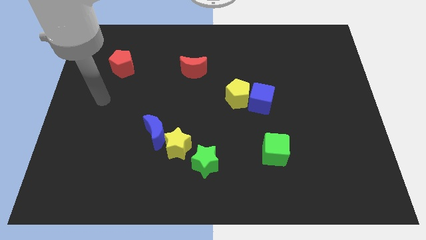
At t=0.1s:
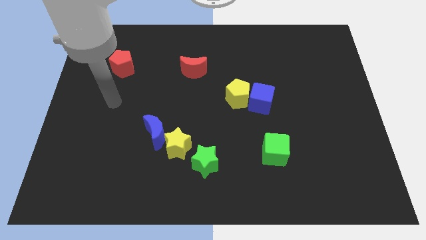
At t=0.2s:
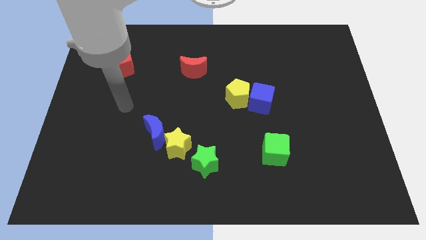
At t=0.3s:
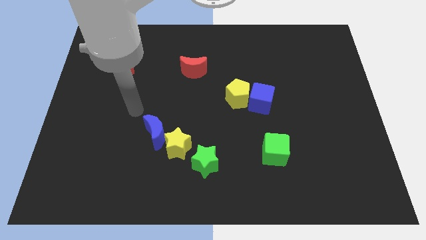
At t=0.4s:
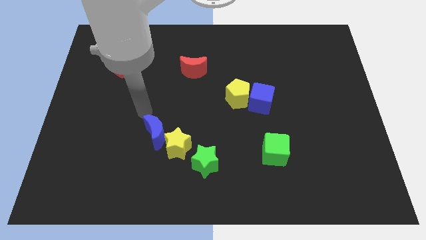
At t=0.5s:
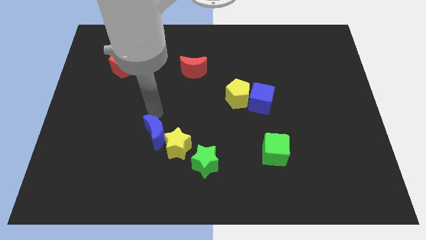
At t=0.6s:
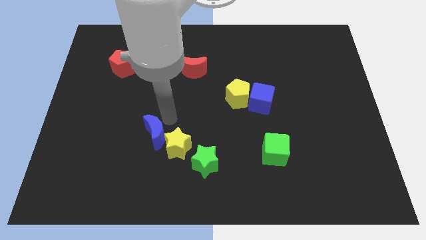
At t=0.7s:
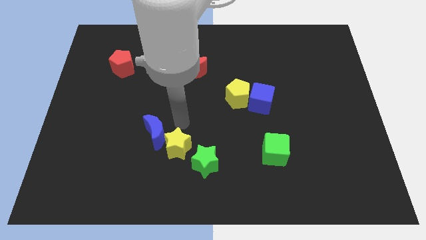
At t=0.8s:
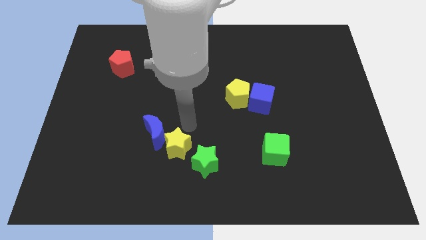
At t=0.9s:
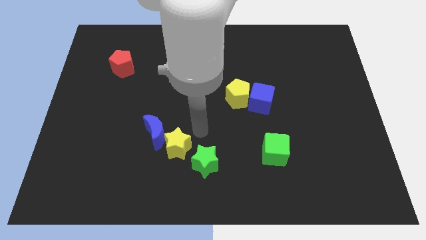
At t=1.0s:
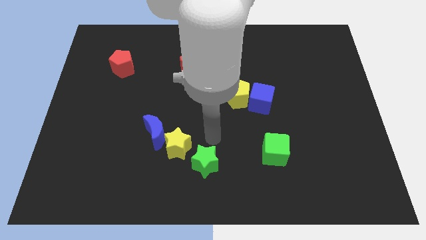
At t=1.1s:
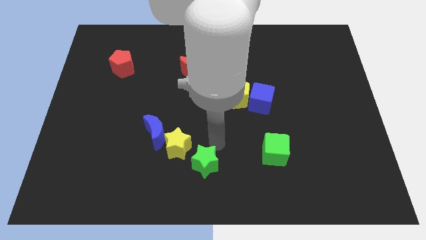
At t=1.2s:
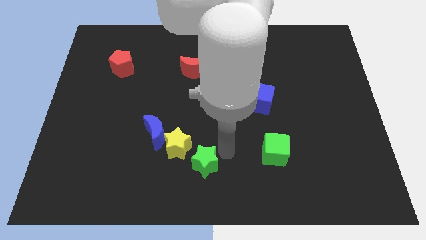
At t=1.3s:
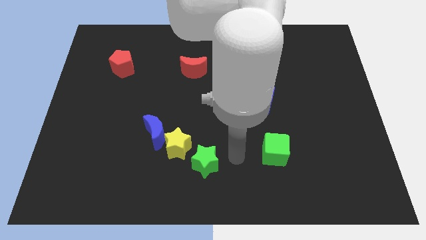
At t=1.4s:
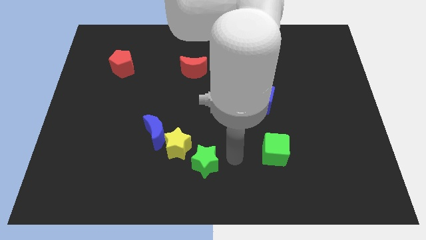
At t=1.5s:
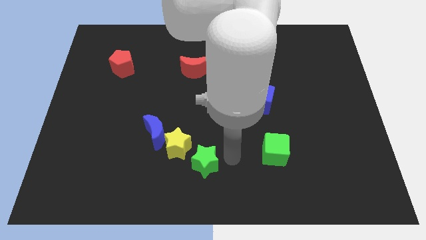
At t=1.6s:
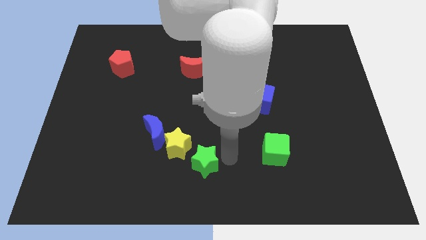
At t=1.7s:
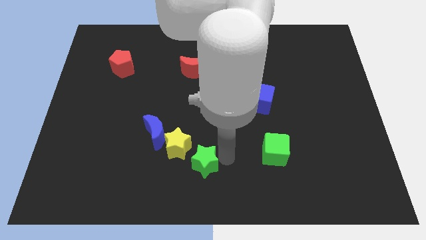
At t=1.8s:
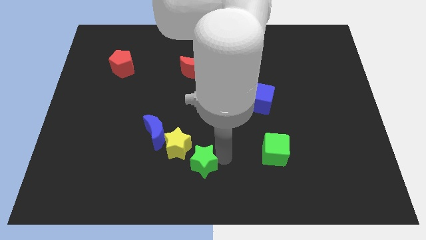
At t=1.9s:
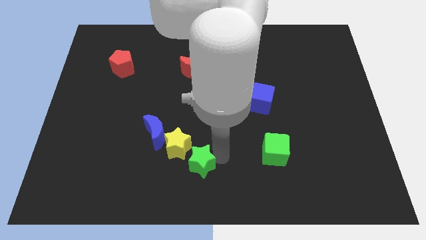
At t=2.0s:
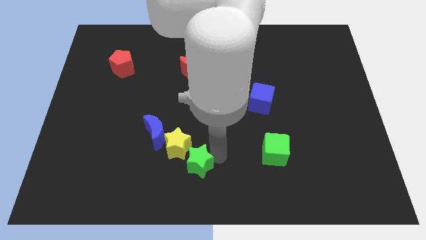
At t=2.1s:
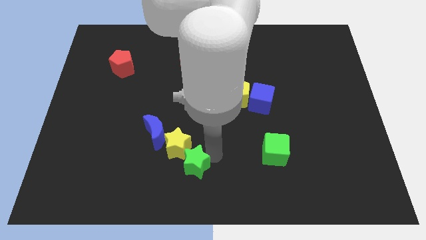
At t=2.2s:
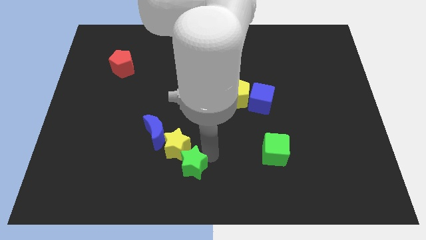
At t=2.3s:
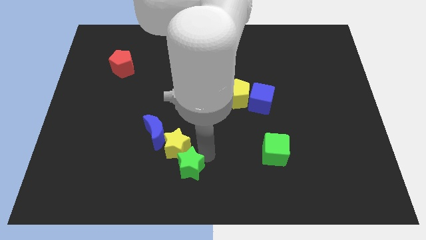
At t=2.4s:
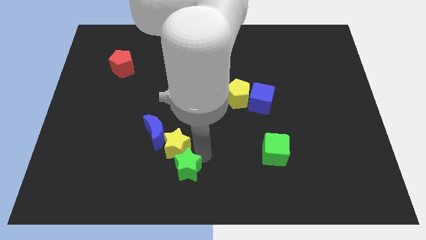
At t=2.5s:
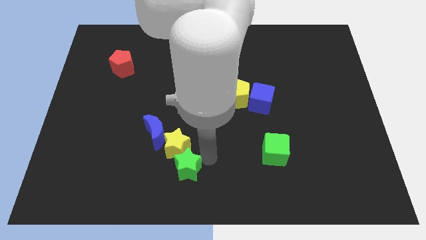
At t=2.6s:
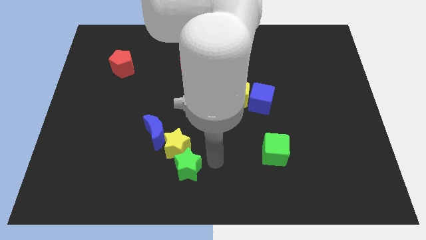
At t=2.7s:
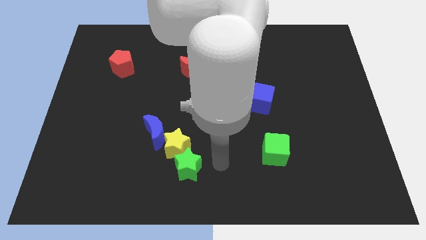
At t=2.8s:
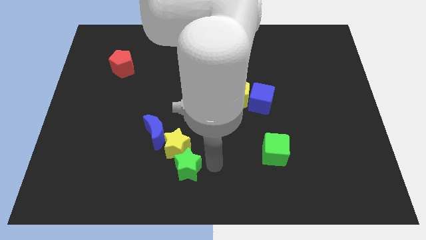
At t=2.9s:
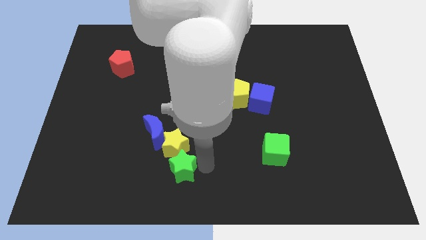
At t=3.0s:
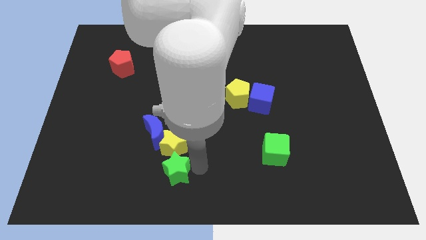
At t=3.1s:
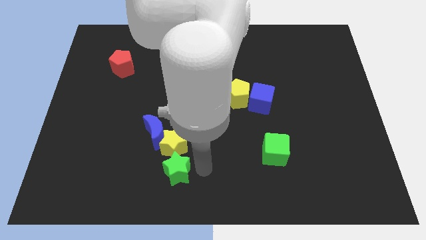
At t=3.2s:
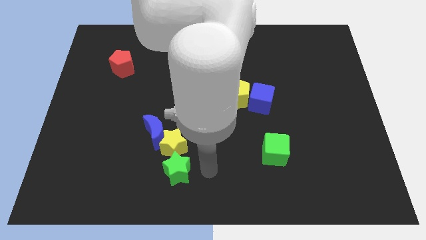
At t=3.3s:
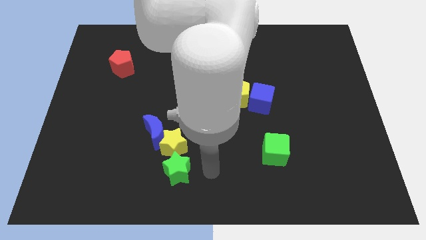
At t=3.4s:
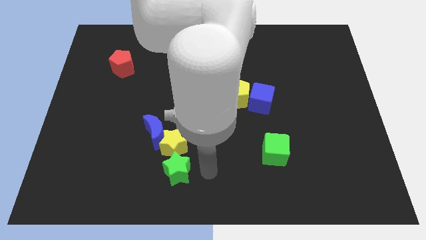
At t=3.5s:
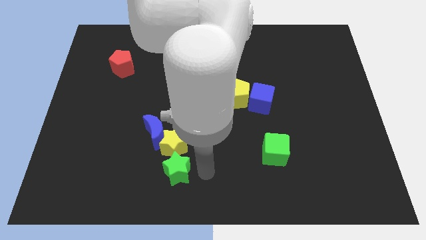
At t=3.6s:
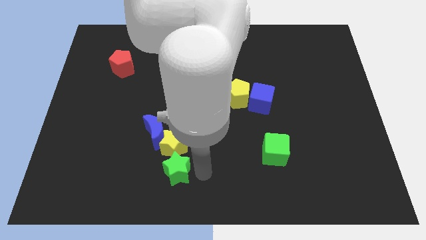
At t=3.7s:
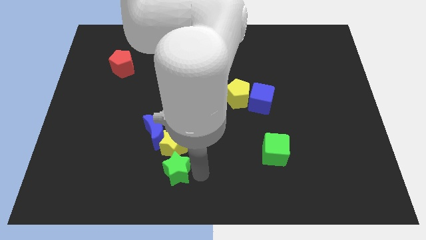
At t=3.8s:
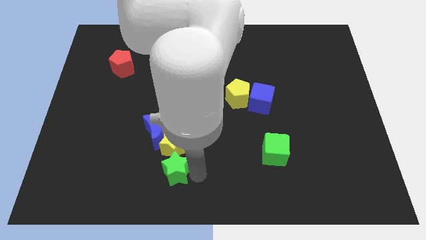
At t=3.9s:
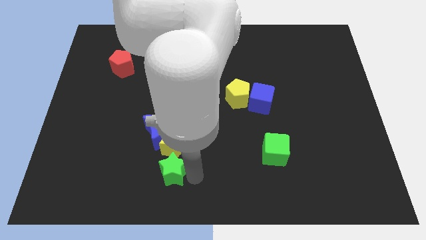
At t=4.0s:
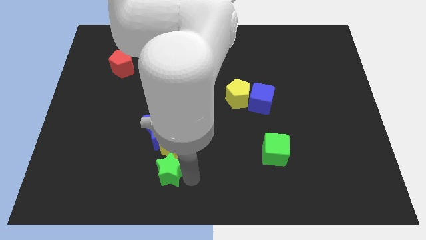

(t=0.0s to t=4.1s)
move the green star left somewhat

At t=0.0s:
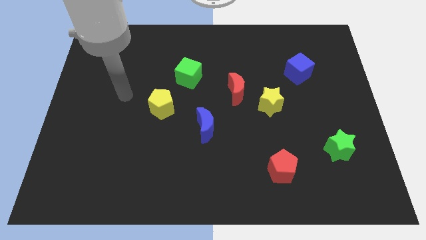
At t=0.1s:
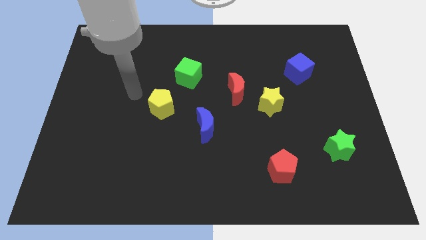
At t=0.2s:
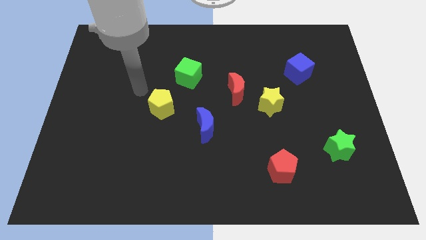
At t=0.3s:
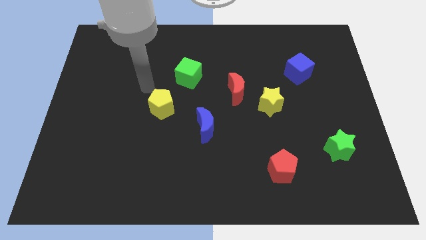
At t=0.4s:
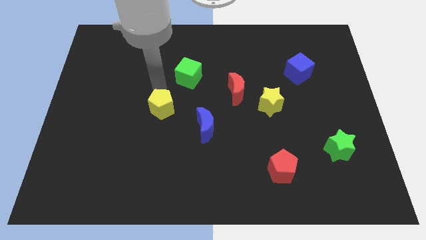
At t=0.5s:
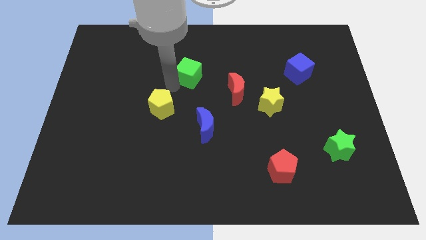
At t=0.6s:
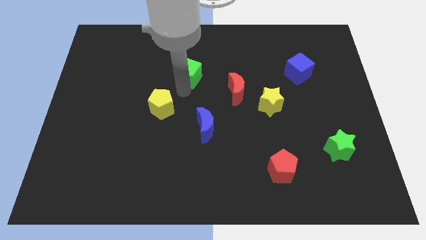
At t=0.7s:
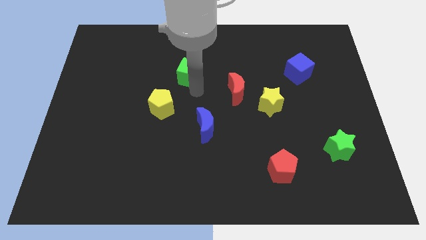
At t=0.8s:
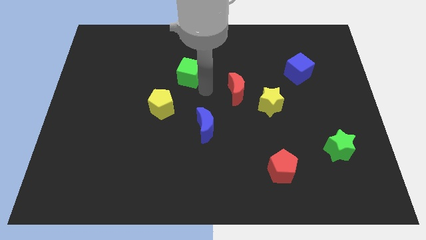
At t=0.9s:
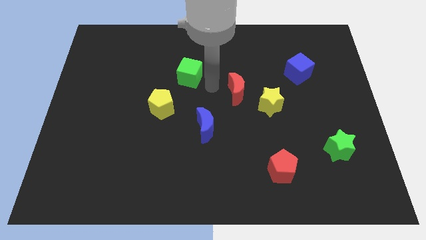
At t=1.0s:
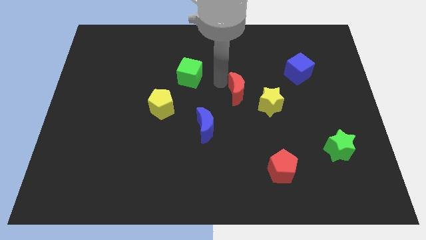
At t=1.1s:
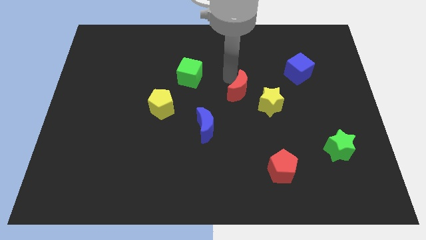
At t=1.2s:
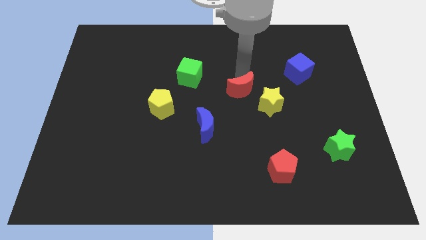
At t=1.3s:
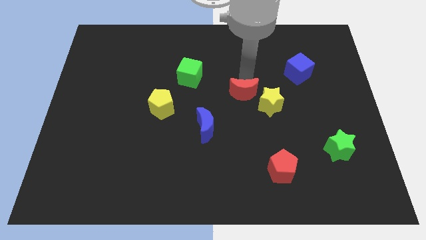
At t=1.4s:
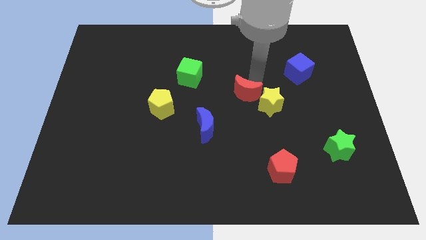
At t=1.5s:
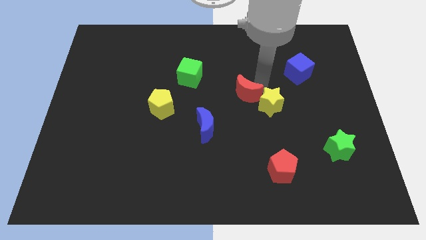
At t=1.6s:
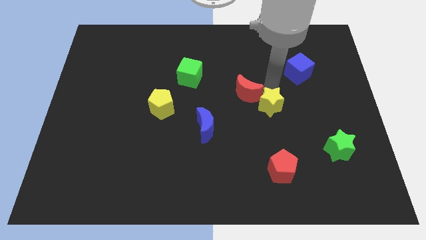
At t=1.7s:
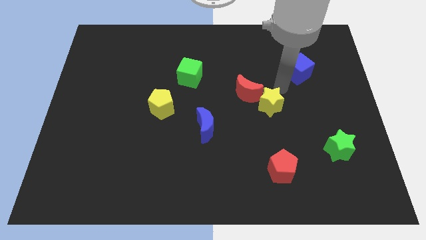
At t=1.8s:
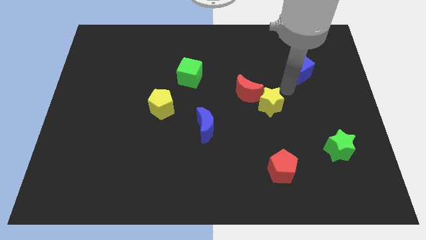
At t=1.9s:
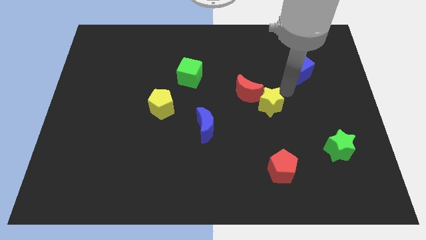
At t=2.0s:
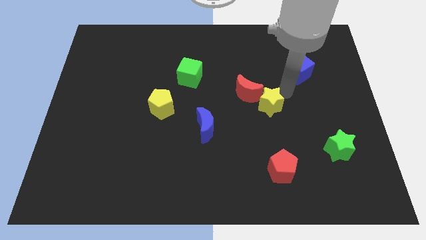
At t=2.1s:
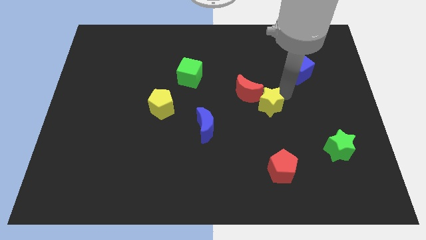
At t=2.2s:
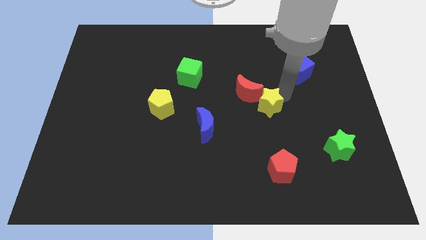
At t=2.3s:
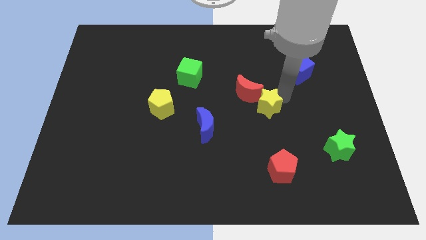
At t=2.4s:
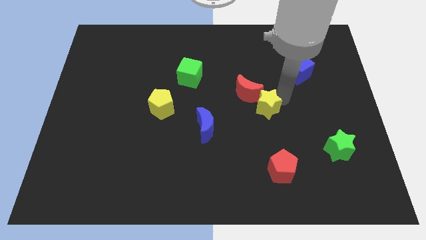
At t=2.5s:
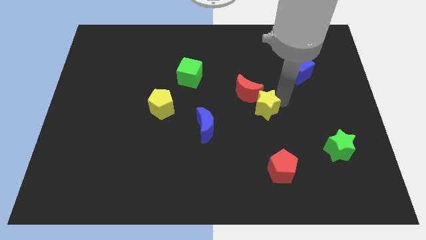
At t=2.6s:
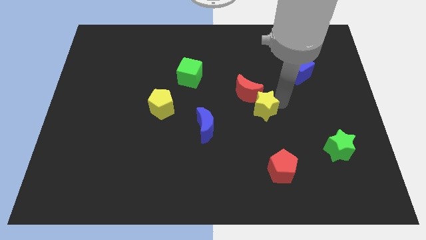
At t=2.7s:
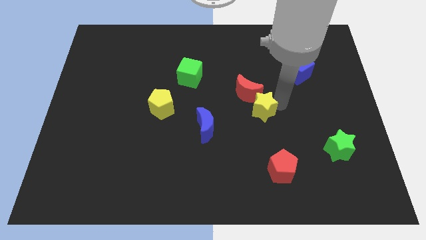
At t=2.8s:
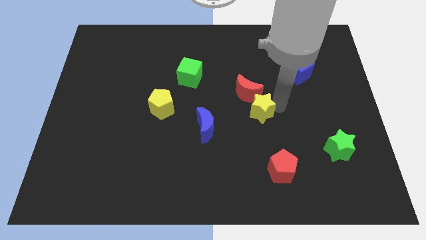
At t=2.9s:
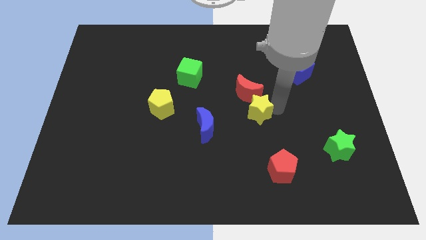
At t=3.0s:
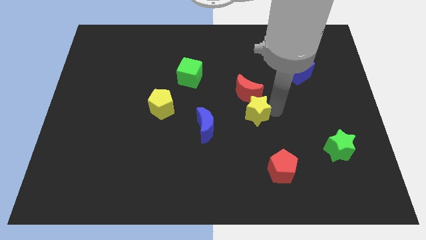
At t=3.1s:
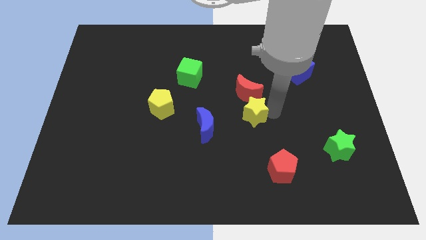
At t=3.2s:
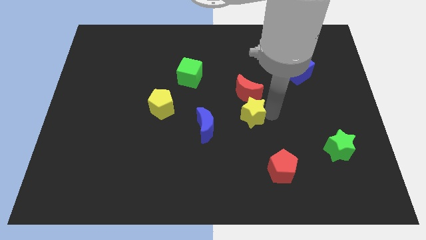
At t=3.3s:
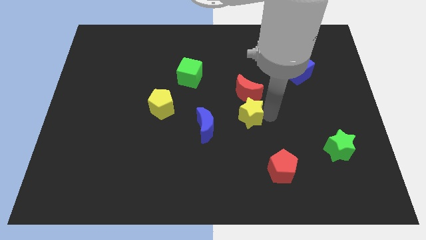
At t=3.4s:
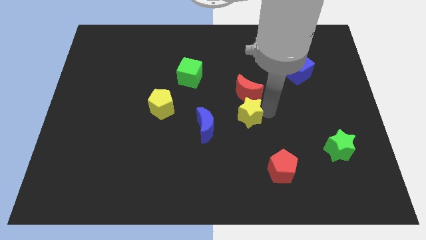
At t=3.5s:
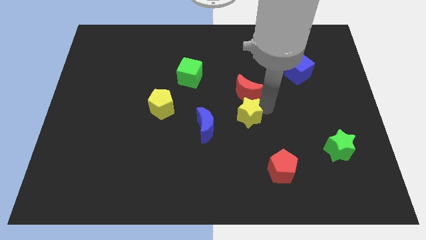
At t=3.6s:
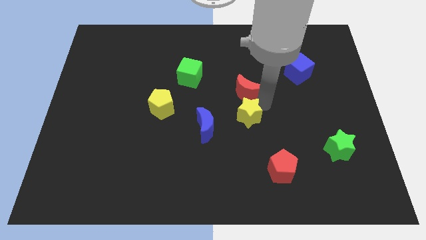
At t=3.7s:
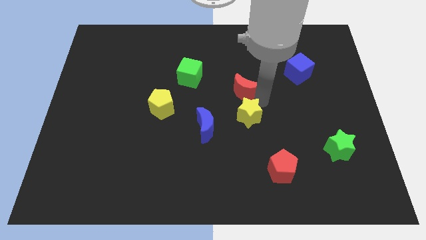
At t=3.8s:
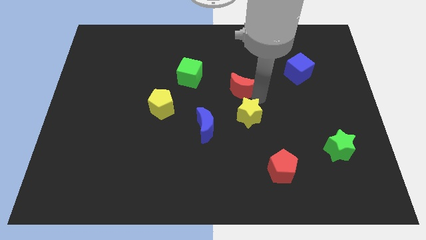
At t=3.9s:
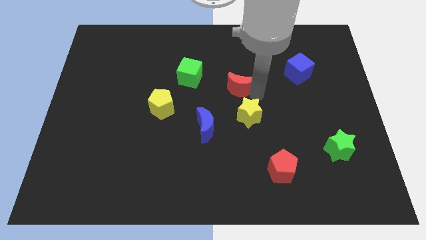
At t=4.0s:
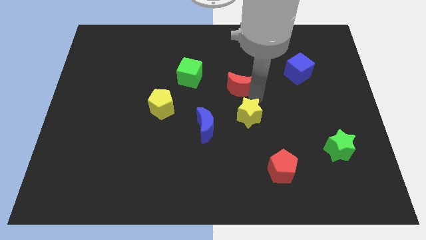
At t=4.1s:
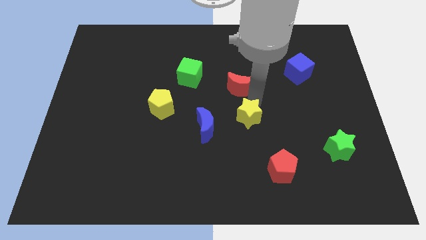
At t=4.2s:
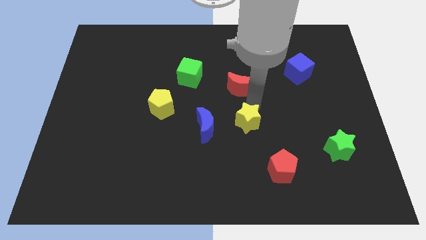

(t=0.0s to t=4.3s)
slide the yellow star diagonally down and left a little

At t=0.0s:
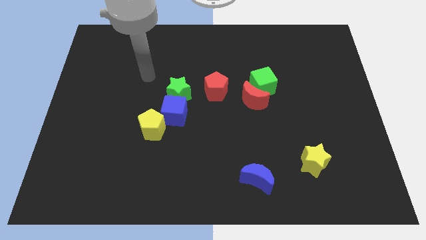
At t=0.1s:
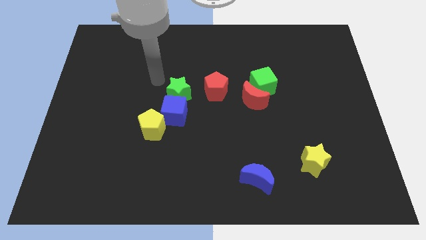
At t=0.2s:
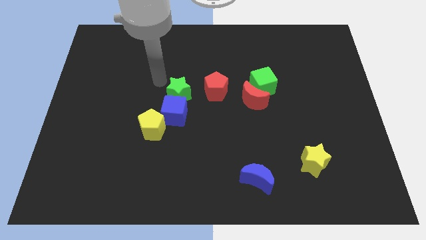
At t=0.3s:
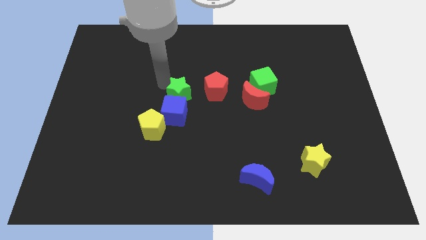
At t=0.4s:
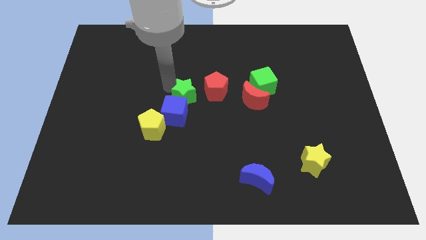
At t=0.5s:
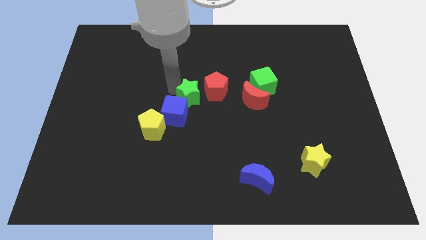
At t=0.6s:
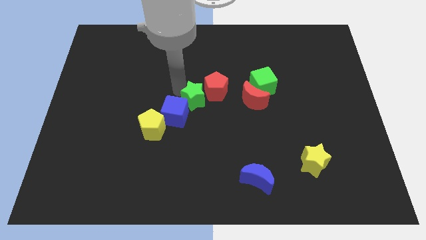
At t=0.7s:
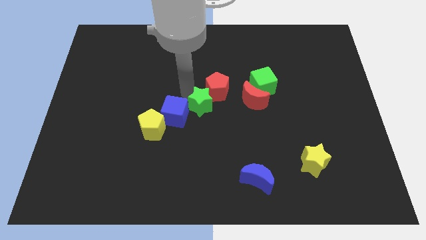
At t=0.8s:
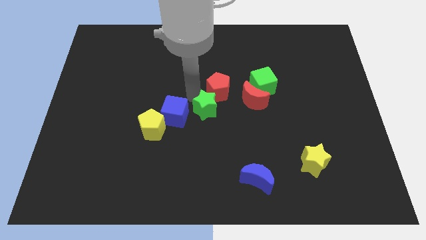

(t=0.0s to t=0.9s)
push the green star diagonally down and right a little
